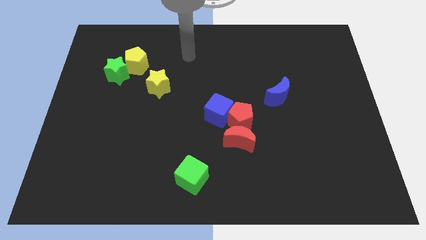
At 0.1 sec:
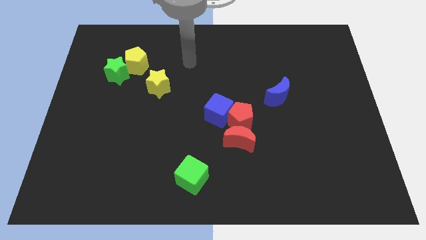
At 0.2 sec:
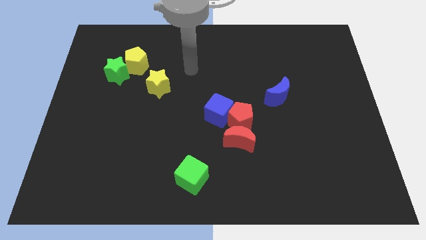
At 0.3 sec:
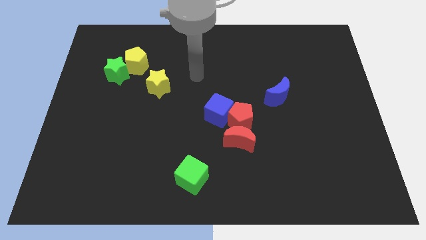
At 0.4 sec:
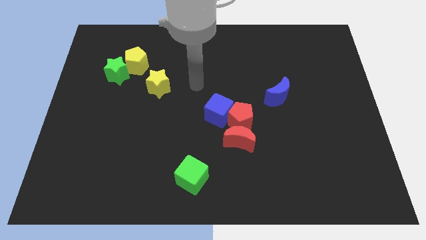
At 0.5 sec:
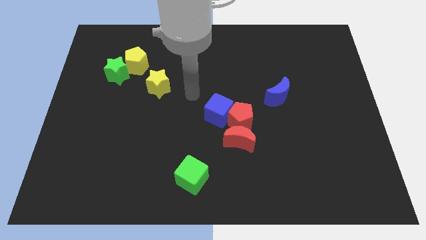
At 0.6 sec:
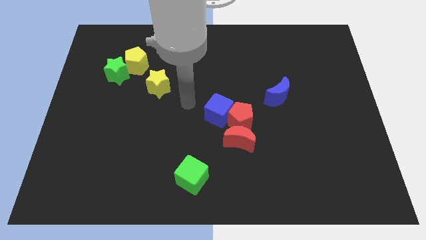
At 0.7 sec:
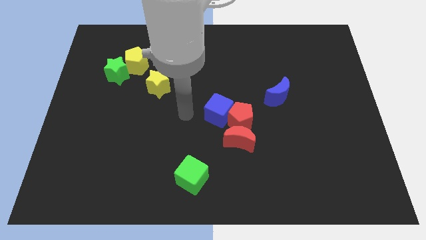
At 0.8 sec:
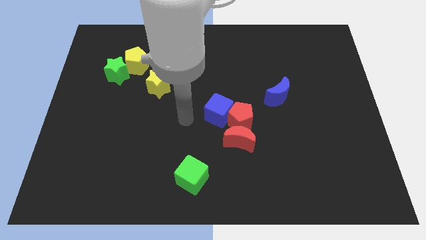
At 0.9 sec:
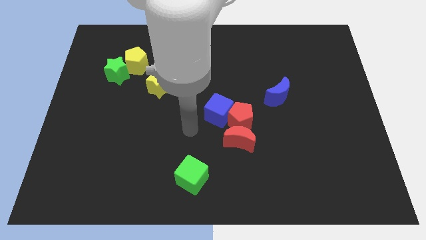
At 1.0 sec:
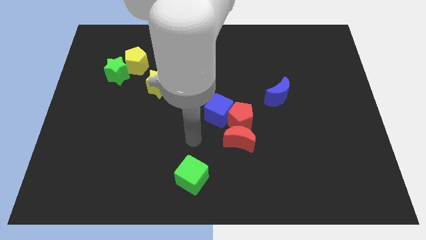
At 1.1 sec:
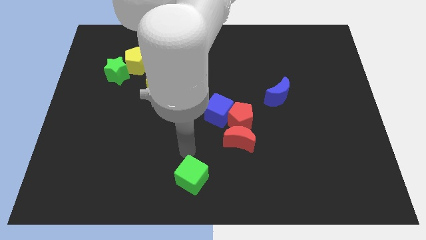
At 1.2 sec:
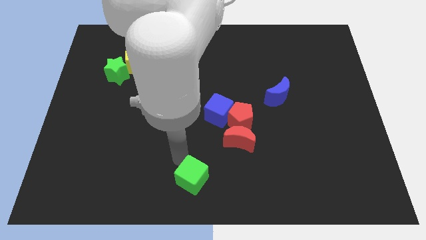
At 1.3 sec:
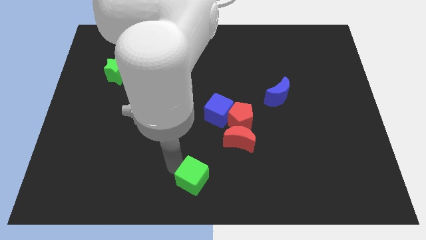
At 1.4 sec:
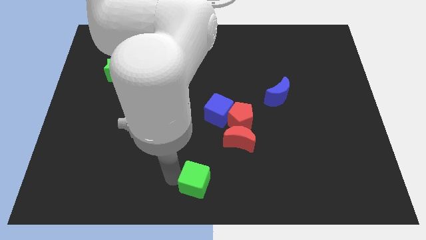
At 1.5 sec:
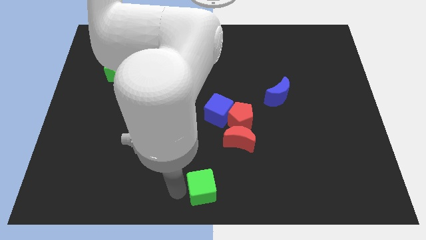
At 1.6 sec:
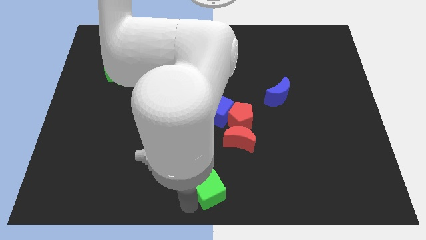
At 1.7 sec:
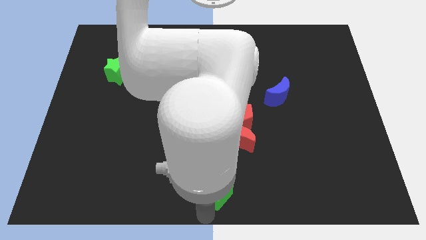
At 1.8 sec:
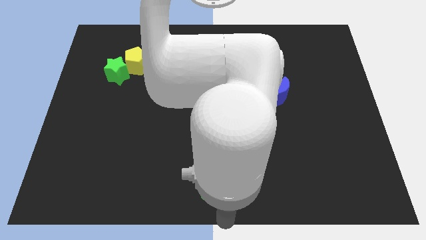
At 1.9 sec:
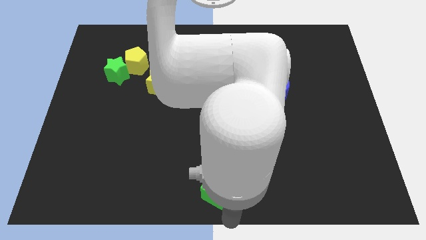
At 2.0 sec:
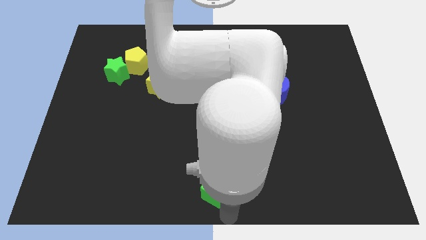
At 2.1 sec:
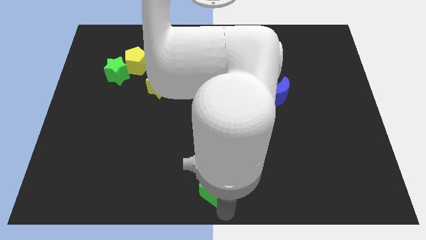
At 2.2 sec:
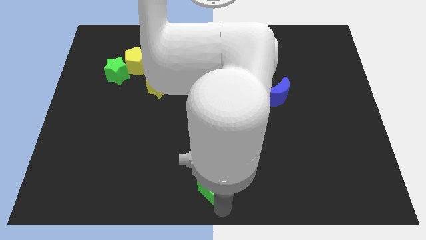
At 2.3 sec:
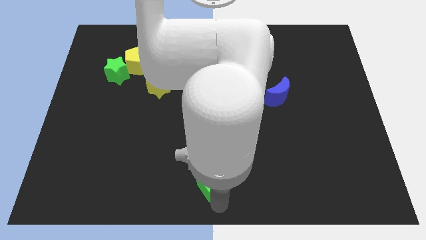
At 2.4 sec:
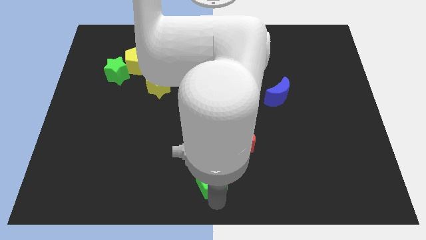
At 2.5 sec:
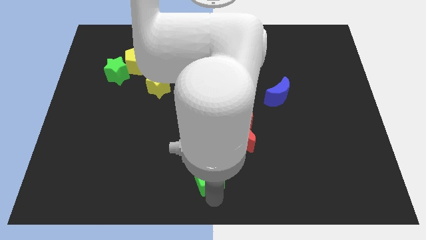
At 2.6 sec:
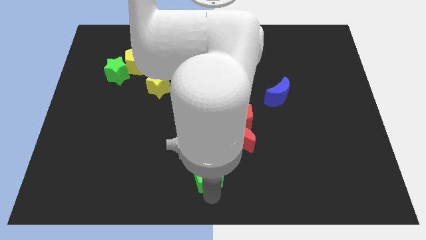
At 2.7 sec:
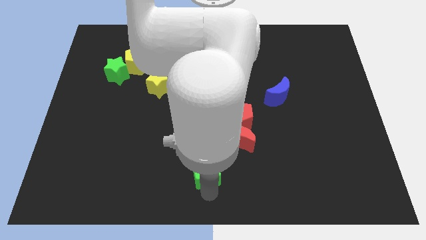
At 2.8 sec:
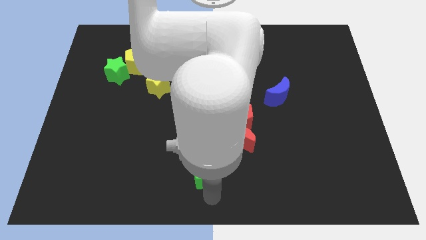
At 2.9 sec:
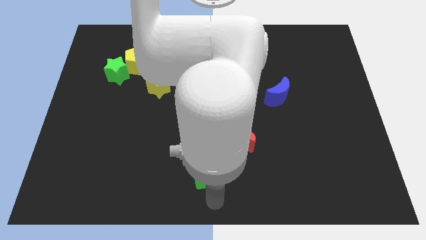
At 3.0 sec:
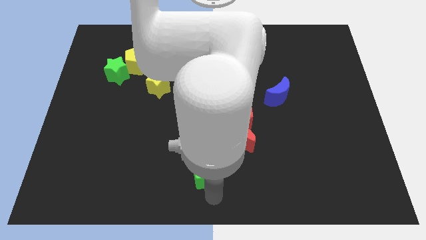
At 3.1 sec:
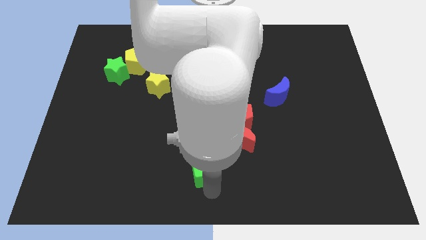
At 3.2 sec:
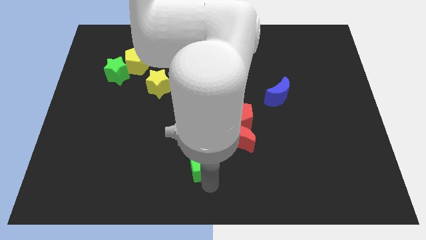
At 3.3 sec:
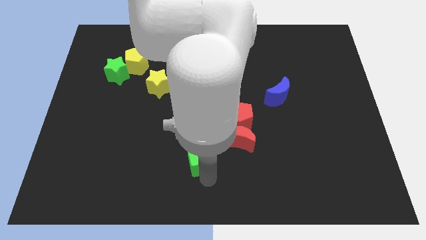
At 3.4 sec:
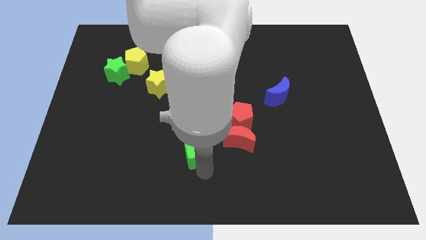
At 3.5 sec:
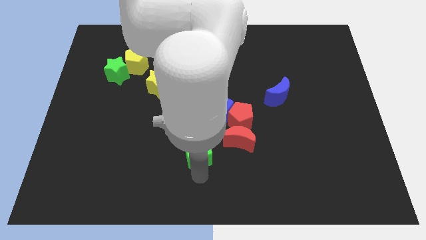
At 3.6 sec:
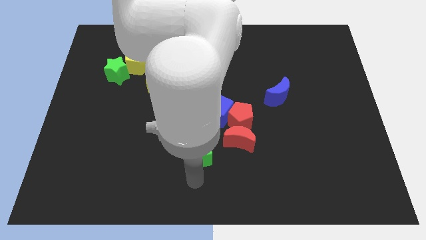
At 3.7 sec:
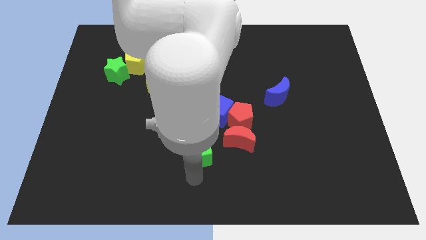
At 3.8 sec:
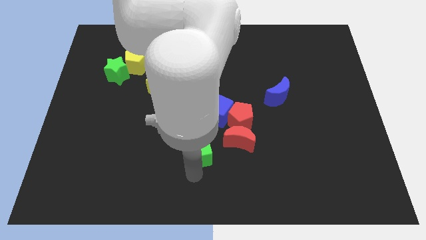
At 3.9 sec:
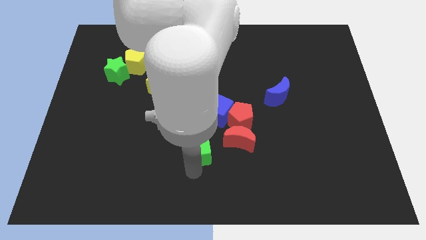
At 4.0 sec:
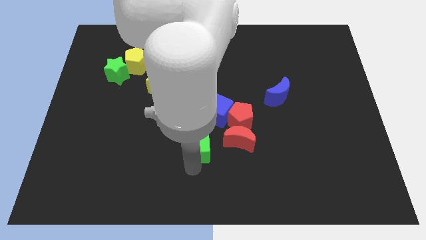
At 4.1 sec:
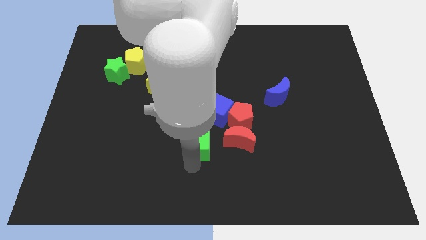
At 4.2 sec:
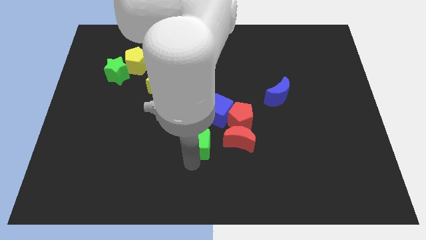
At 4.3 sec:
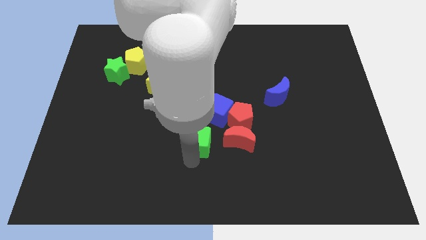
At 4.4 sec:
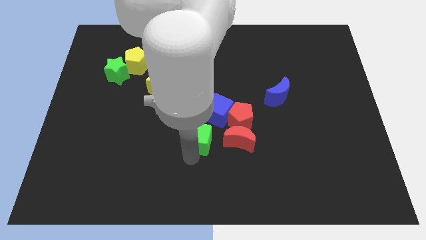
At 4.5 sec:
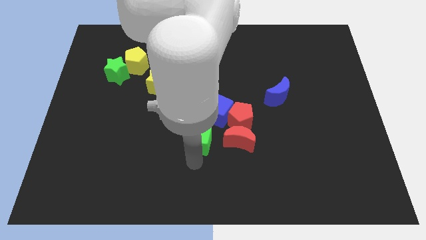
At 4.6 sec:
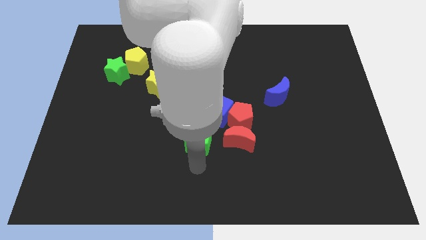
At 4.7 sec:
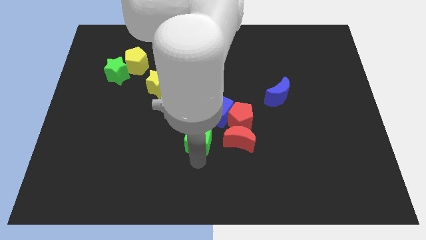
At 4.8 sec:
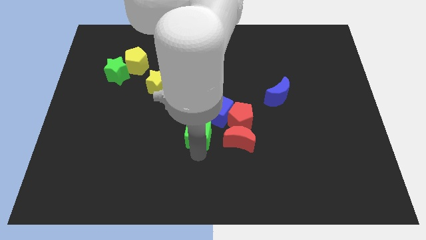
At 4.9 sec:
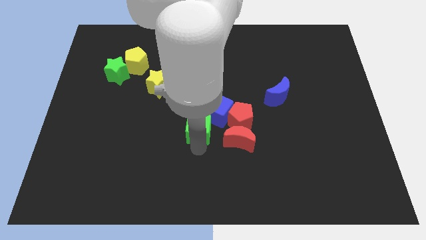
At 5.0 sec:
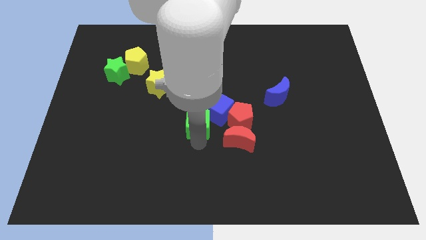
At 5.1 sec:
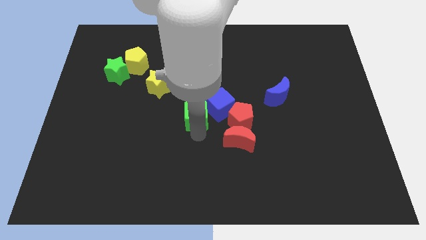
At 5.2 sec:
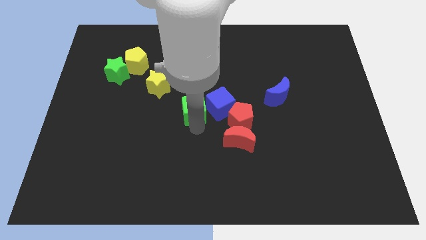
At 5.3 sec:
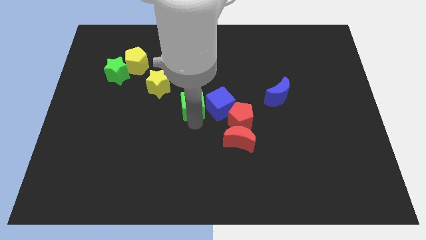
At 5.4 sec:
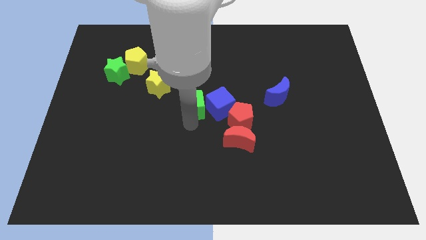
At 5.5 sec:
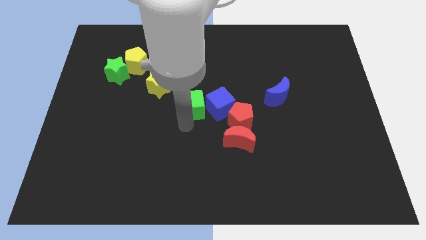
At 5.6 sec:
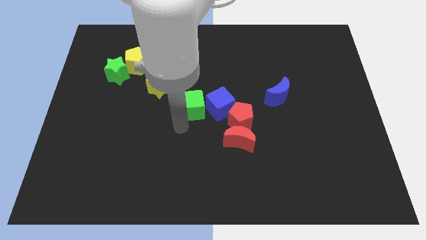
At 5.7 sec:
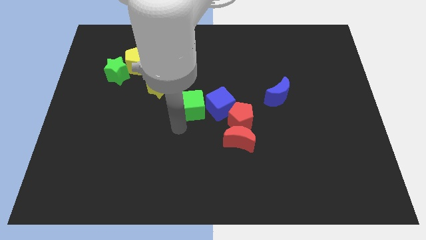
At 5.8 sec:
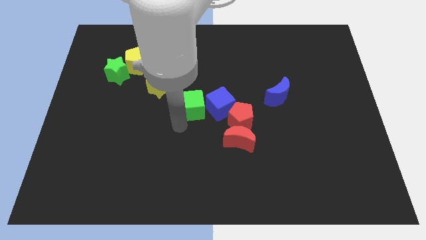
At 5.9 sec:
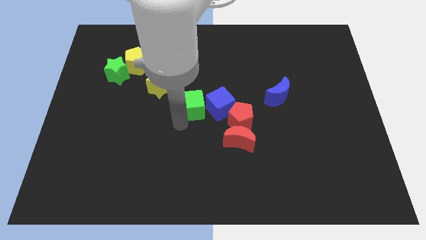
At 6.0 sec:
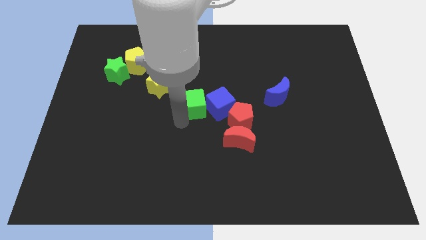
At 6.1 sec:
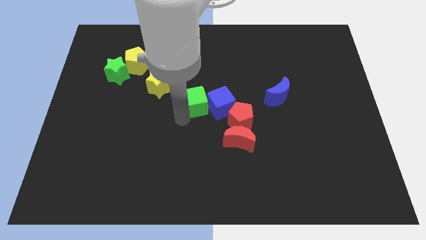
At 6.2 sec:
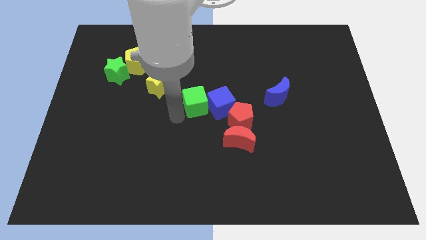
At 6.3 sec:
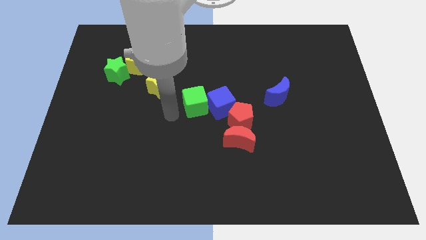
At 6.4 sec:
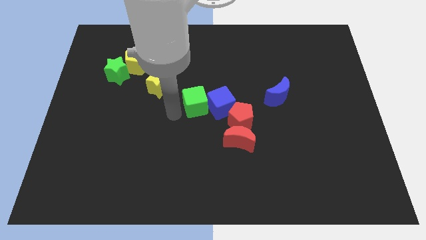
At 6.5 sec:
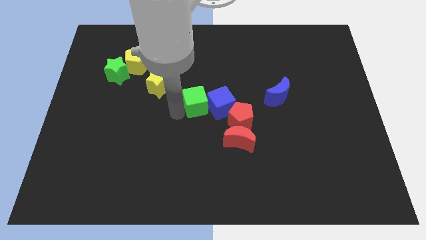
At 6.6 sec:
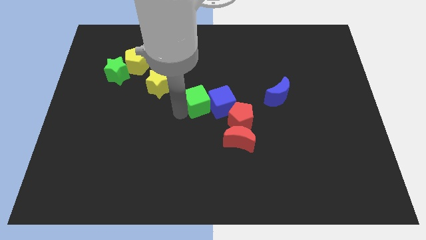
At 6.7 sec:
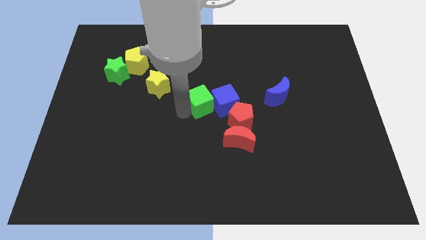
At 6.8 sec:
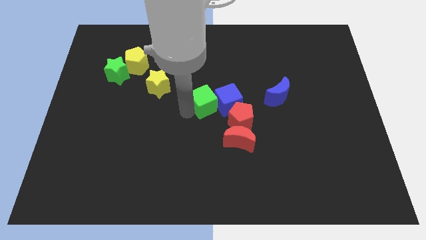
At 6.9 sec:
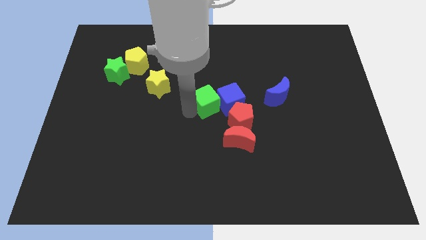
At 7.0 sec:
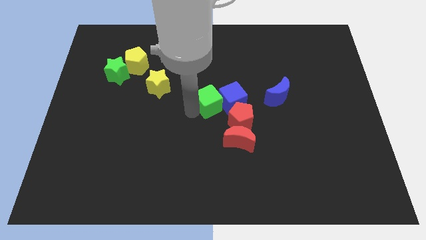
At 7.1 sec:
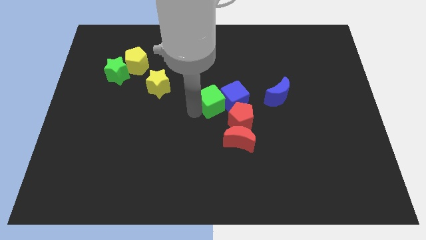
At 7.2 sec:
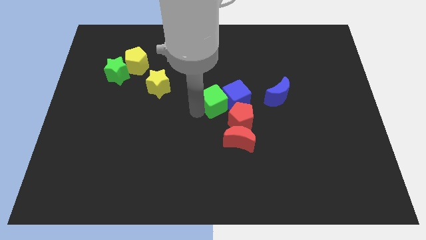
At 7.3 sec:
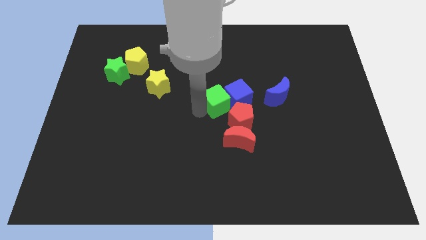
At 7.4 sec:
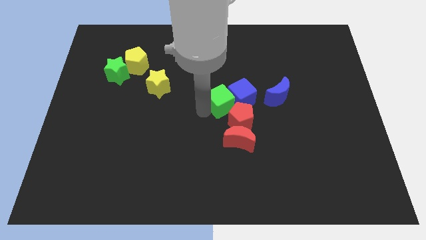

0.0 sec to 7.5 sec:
put the green cube above the red pentagon

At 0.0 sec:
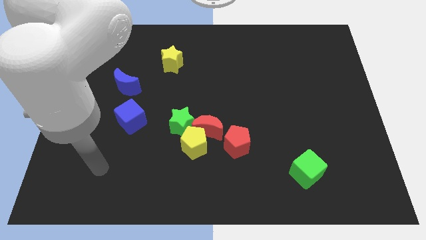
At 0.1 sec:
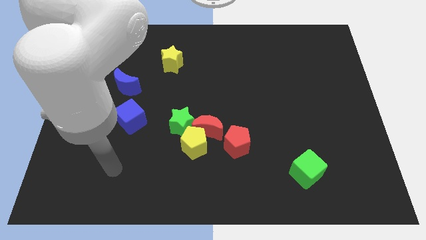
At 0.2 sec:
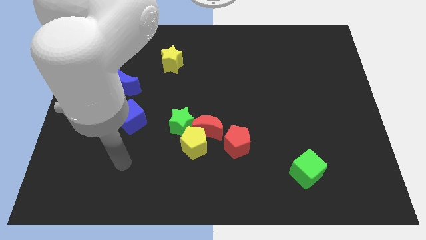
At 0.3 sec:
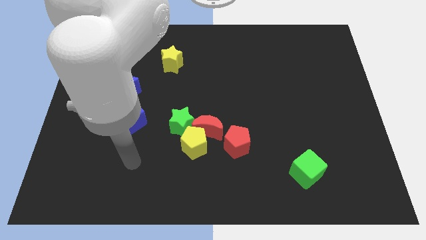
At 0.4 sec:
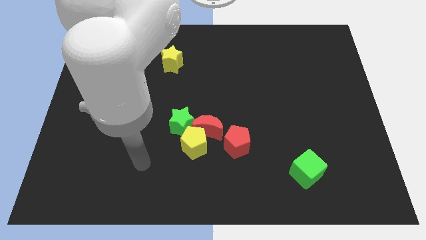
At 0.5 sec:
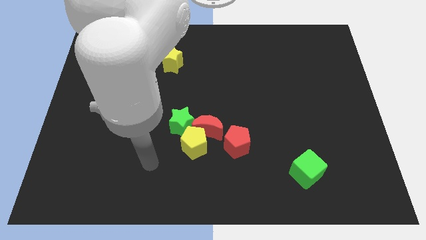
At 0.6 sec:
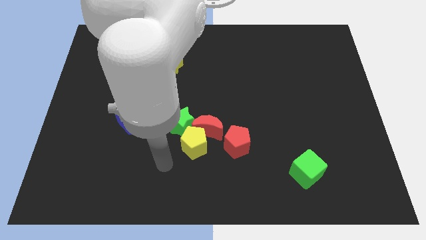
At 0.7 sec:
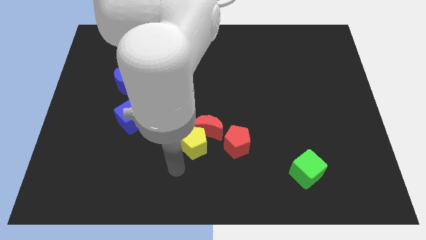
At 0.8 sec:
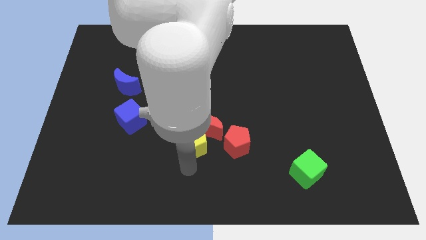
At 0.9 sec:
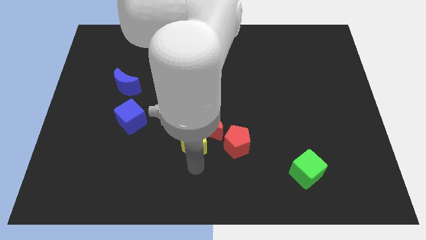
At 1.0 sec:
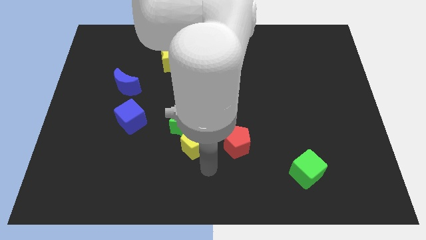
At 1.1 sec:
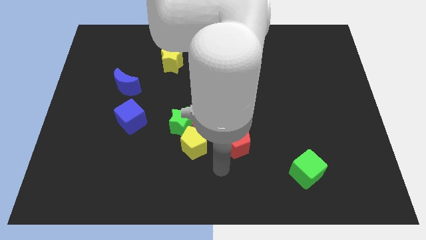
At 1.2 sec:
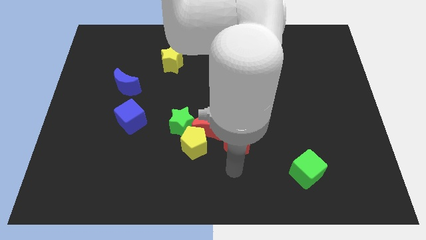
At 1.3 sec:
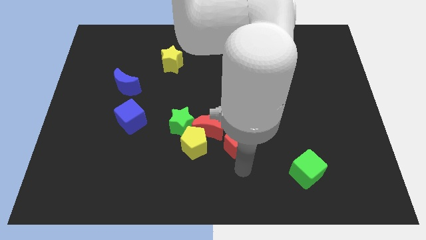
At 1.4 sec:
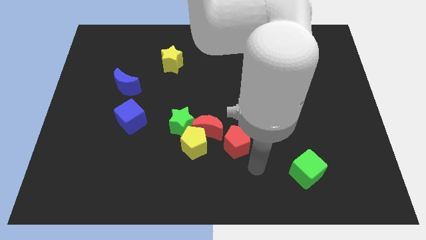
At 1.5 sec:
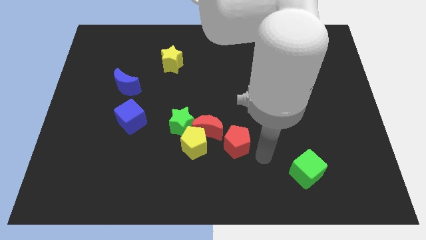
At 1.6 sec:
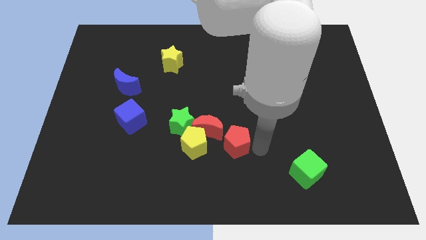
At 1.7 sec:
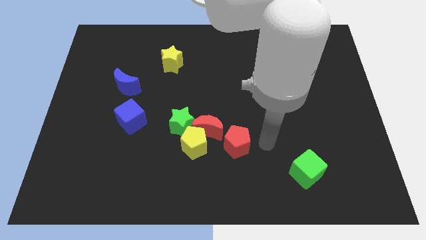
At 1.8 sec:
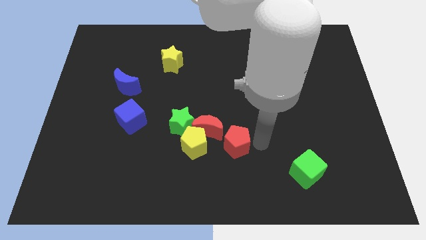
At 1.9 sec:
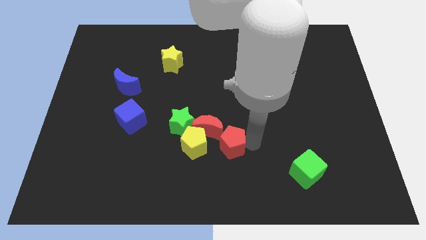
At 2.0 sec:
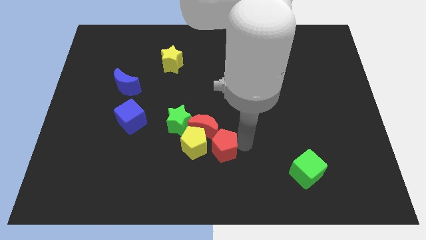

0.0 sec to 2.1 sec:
push the red pentagon to the bottom right side of the green star
